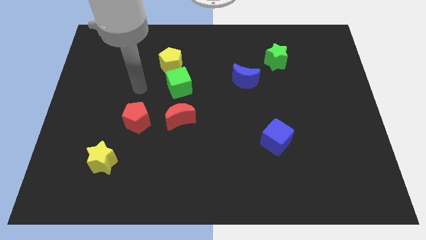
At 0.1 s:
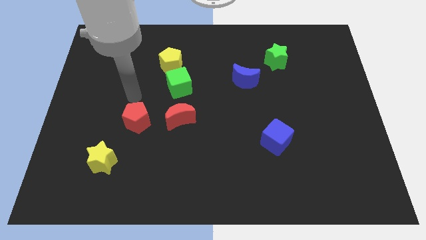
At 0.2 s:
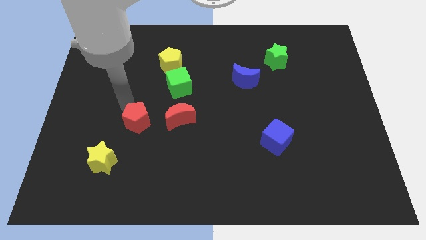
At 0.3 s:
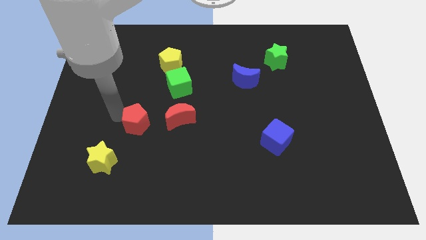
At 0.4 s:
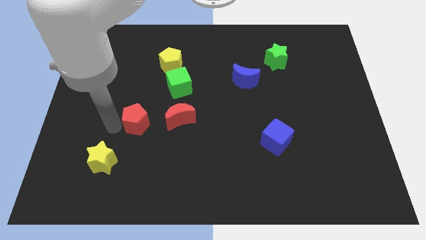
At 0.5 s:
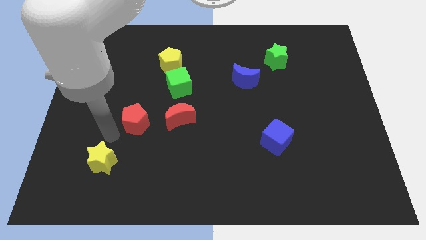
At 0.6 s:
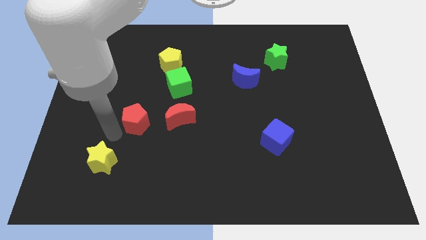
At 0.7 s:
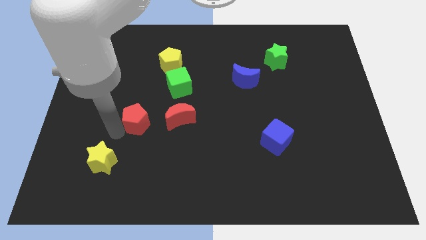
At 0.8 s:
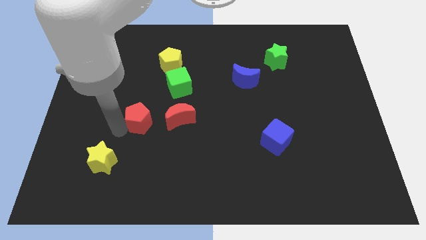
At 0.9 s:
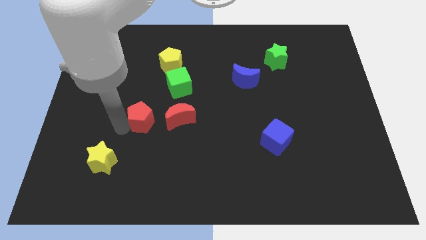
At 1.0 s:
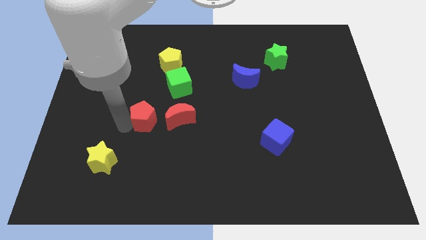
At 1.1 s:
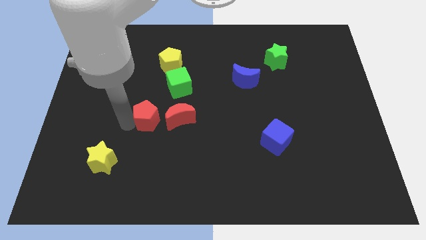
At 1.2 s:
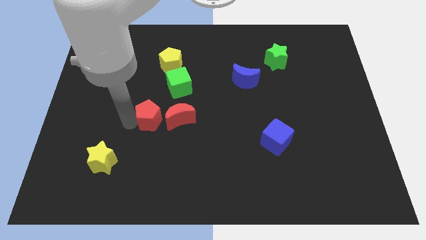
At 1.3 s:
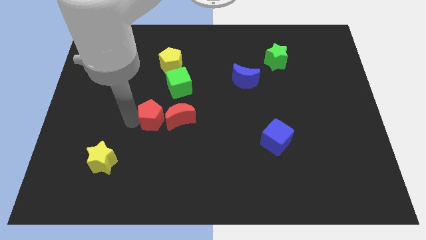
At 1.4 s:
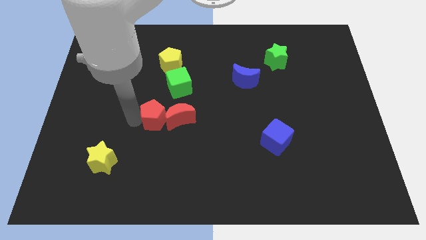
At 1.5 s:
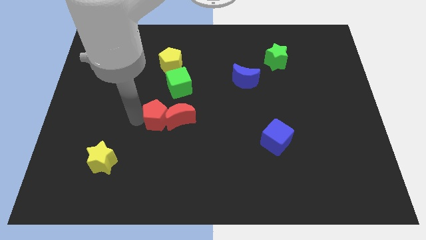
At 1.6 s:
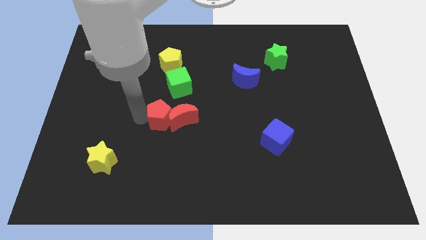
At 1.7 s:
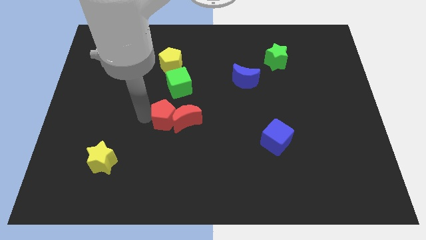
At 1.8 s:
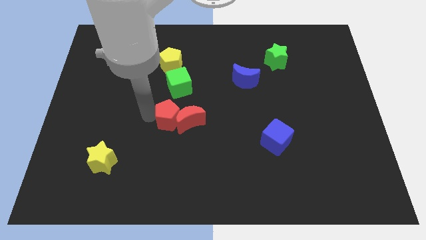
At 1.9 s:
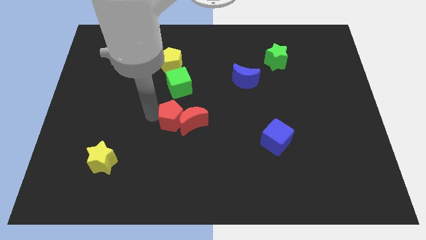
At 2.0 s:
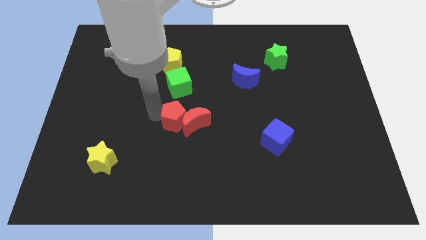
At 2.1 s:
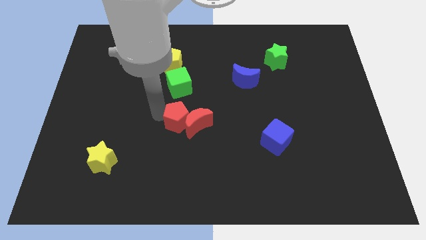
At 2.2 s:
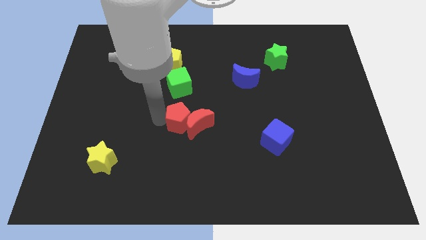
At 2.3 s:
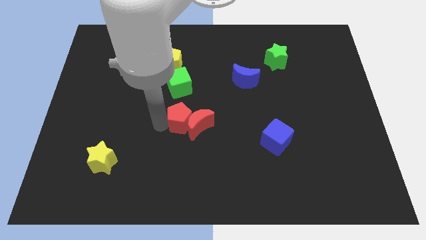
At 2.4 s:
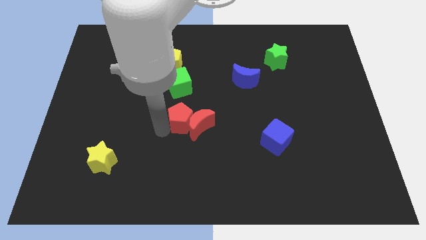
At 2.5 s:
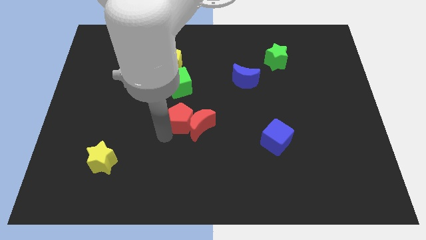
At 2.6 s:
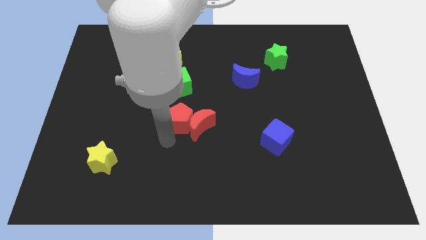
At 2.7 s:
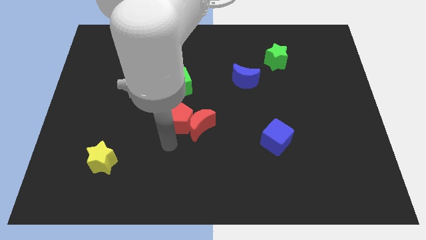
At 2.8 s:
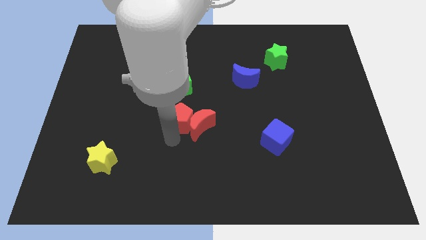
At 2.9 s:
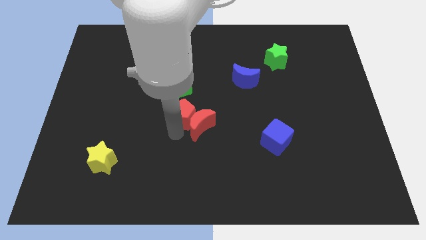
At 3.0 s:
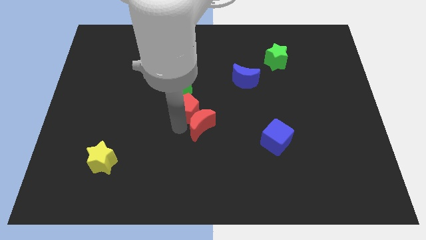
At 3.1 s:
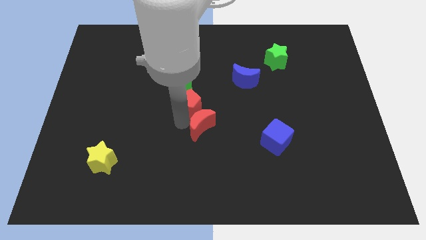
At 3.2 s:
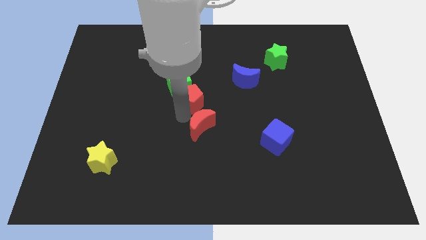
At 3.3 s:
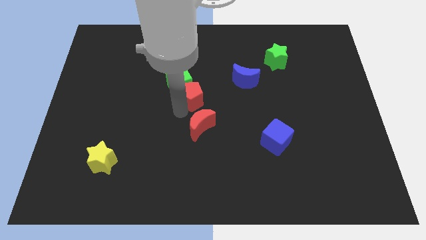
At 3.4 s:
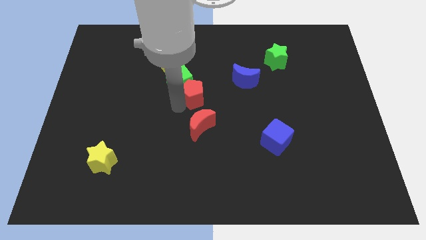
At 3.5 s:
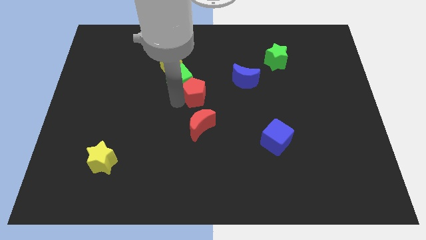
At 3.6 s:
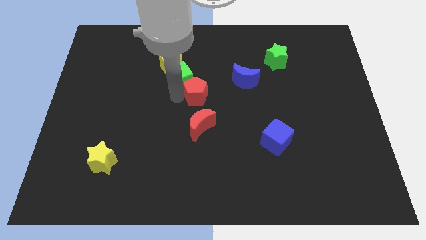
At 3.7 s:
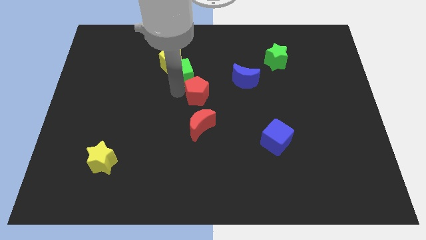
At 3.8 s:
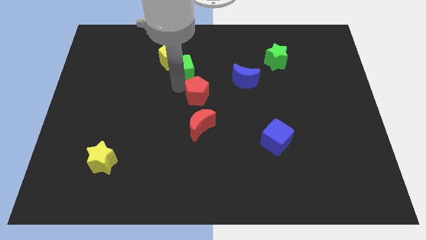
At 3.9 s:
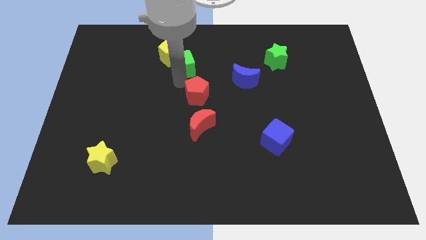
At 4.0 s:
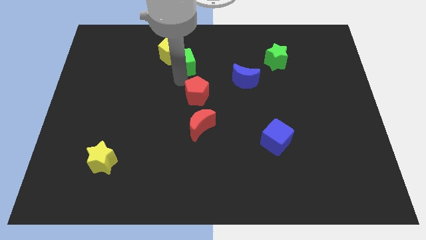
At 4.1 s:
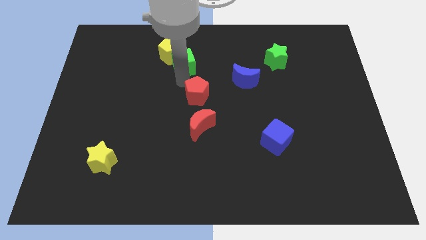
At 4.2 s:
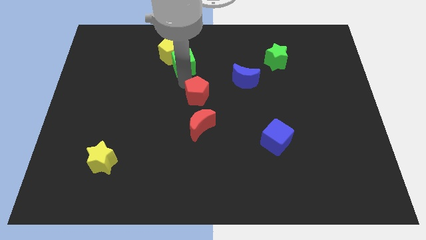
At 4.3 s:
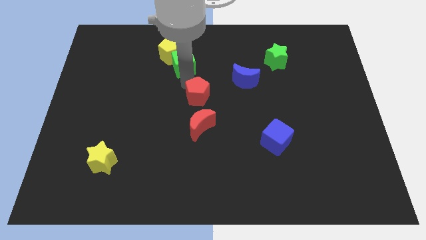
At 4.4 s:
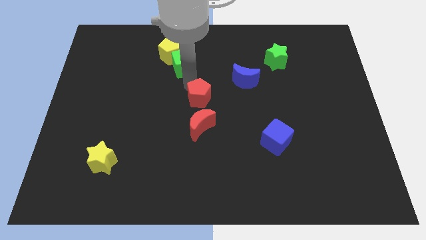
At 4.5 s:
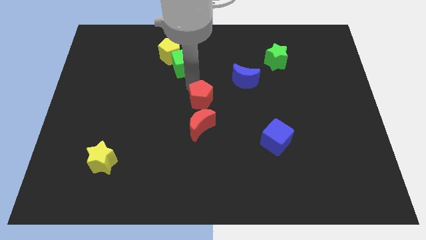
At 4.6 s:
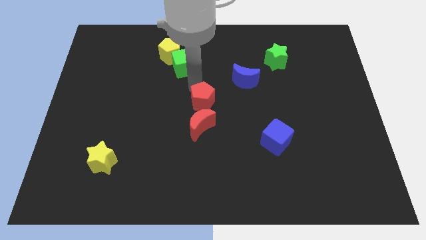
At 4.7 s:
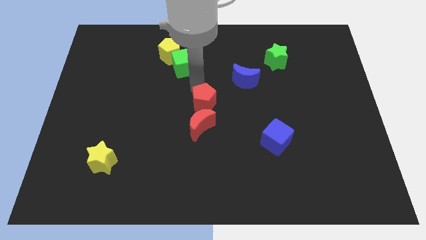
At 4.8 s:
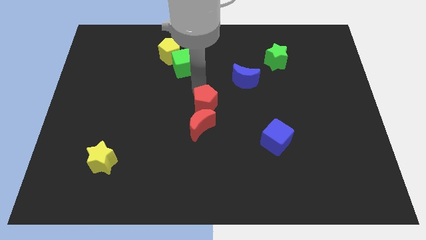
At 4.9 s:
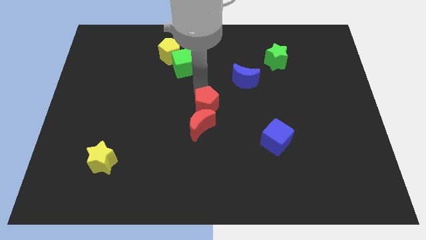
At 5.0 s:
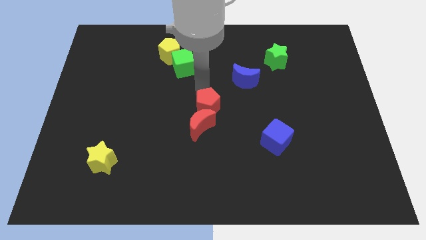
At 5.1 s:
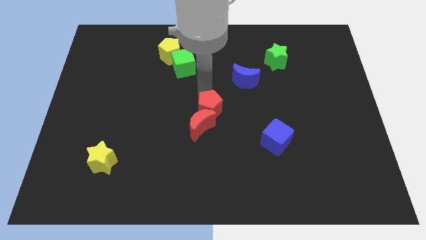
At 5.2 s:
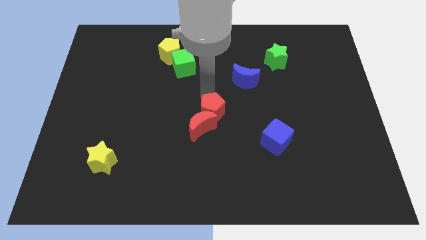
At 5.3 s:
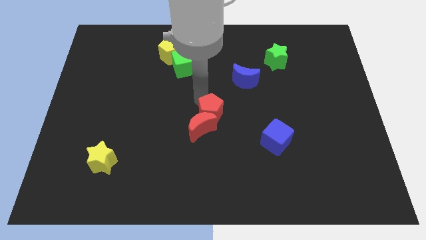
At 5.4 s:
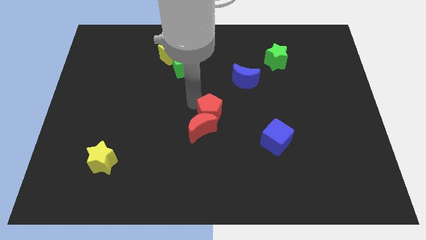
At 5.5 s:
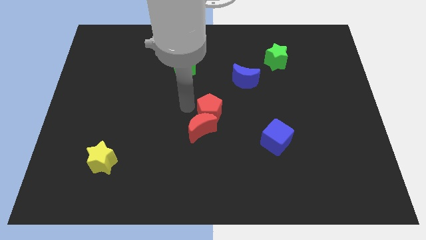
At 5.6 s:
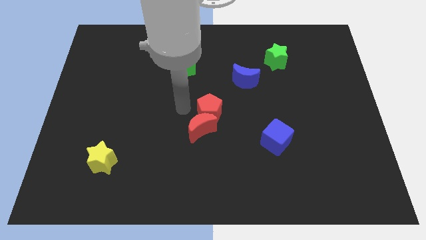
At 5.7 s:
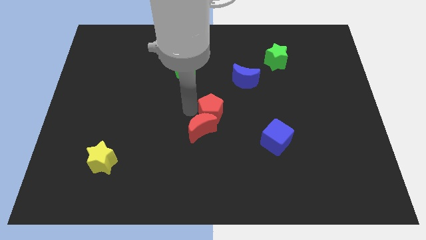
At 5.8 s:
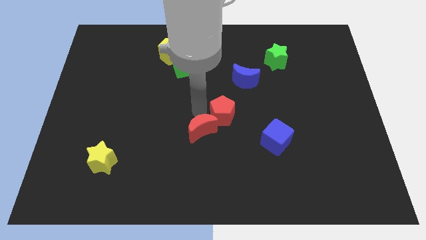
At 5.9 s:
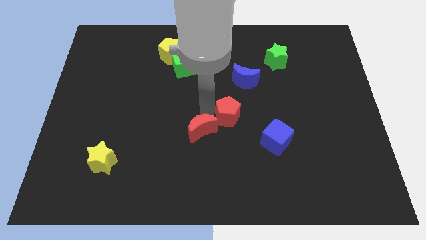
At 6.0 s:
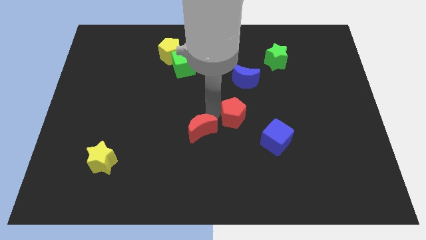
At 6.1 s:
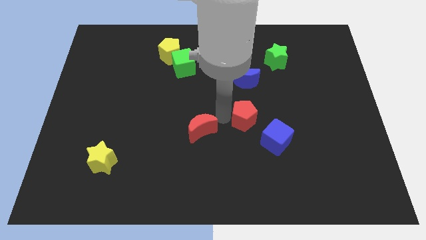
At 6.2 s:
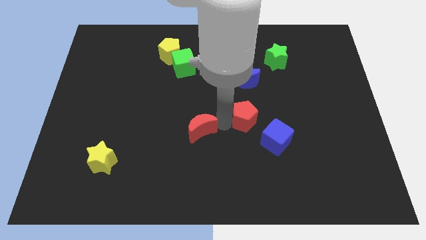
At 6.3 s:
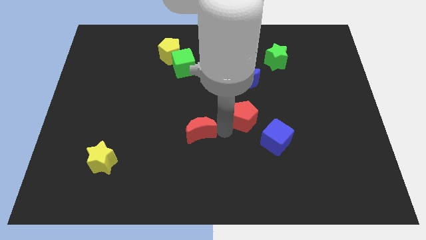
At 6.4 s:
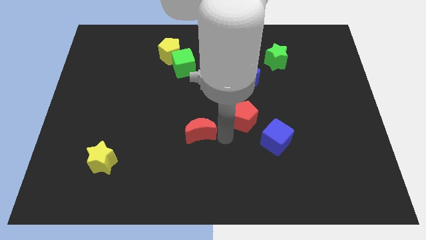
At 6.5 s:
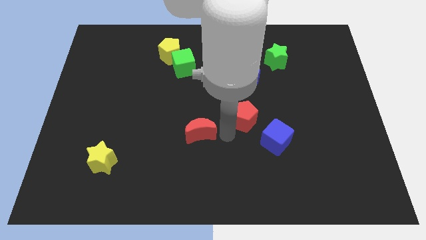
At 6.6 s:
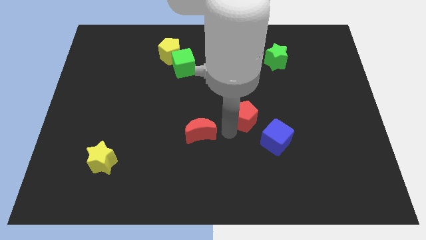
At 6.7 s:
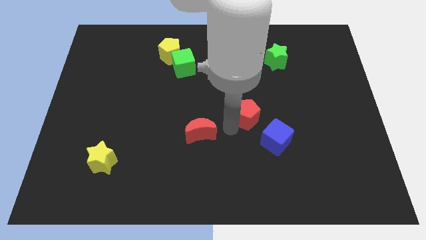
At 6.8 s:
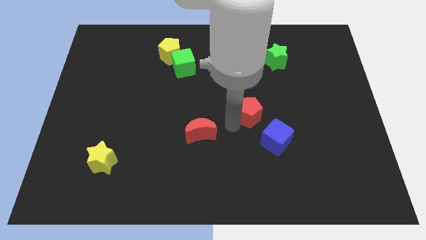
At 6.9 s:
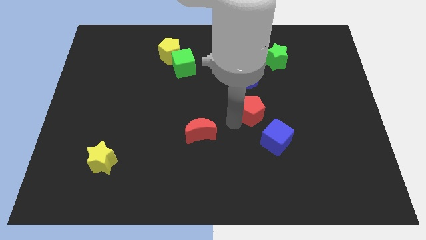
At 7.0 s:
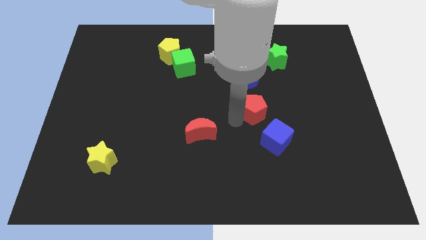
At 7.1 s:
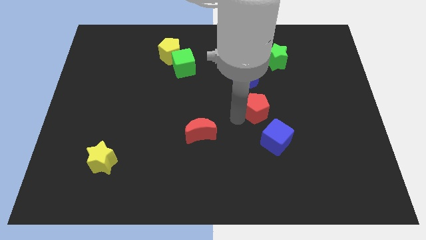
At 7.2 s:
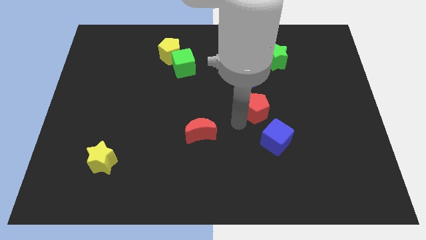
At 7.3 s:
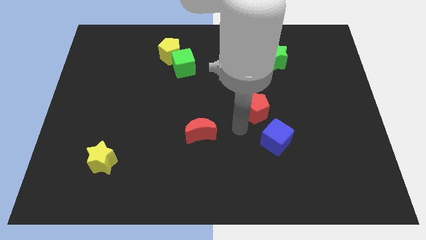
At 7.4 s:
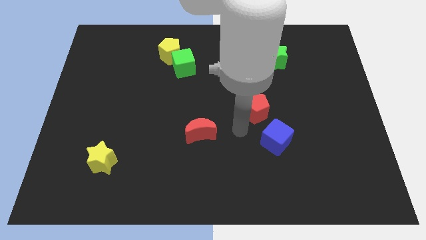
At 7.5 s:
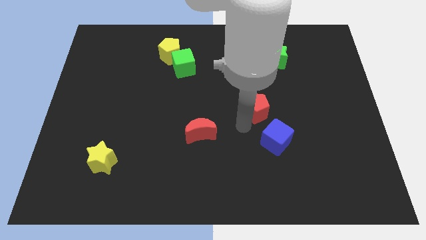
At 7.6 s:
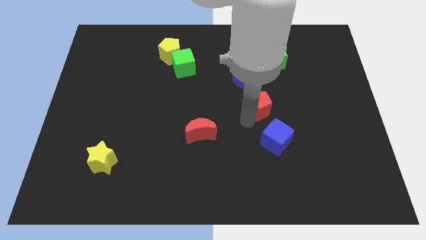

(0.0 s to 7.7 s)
slide the red pentagon to the bottom right of the blue moon
